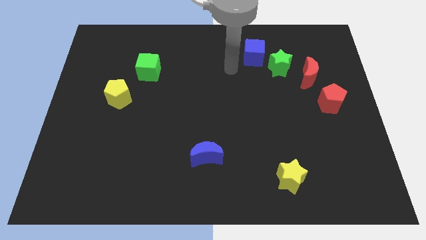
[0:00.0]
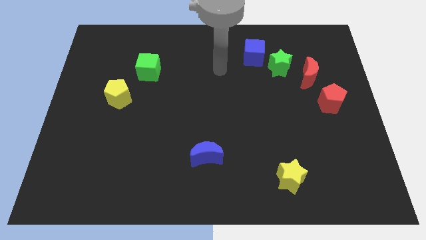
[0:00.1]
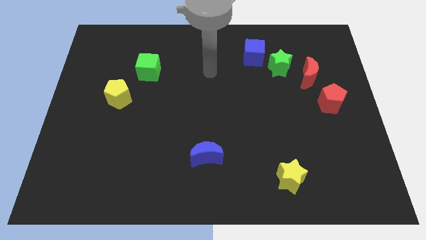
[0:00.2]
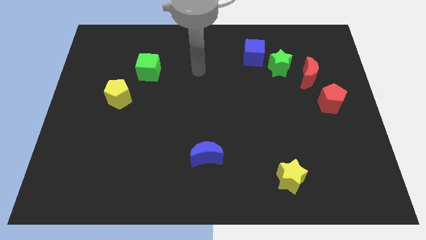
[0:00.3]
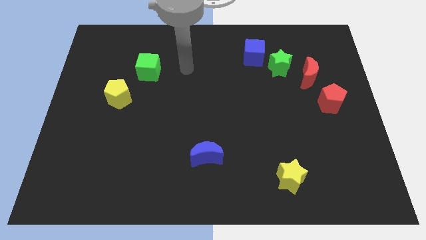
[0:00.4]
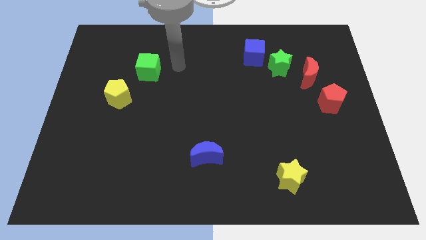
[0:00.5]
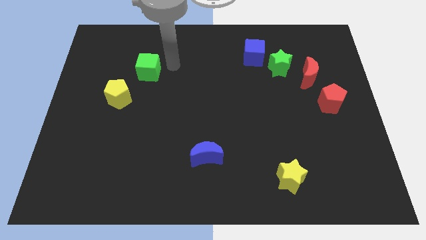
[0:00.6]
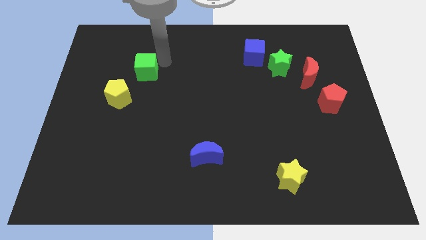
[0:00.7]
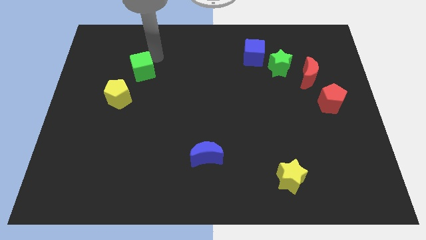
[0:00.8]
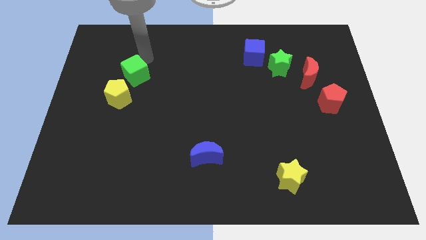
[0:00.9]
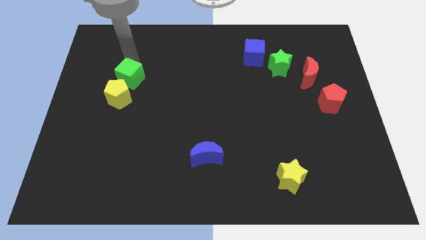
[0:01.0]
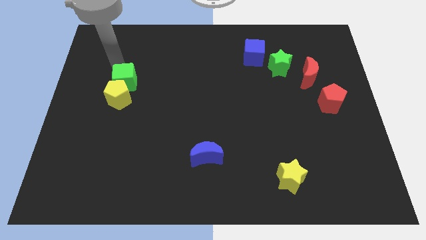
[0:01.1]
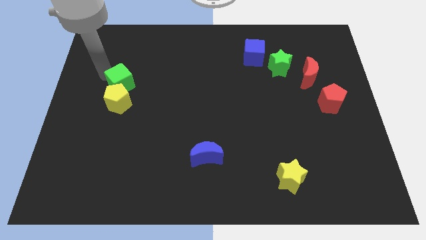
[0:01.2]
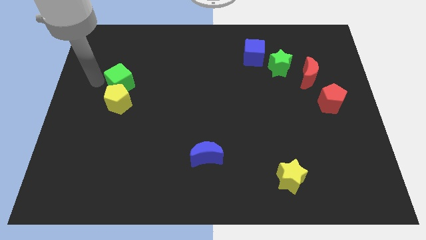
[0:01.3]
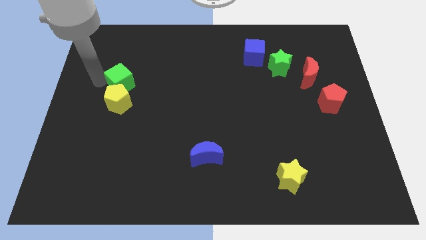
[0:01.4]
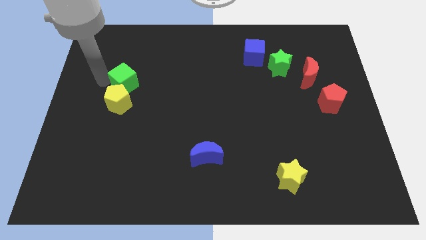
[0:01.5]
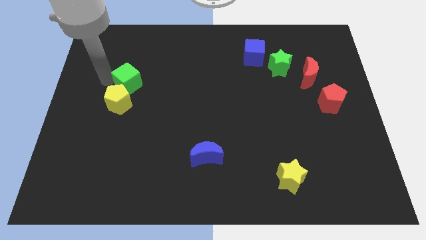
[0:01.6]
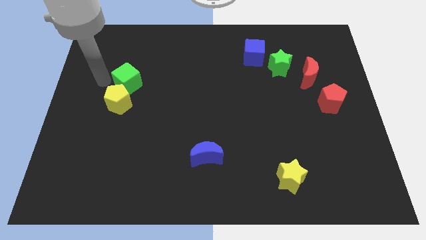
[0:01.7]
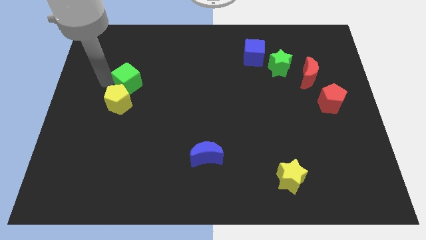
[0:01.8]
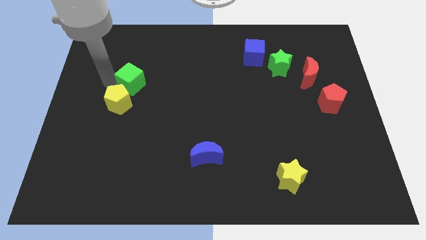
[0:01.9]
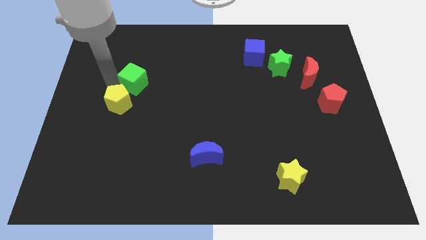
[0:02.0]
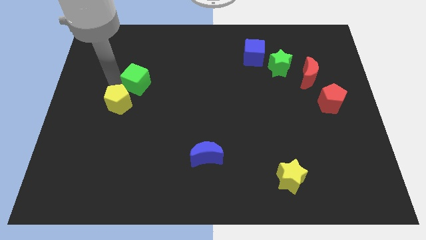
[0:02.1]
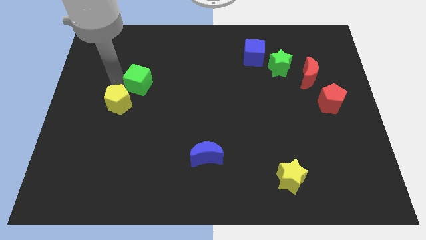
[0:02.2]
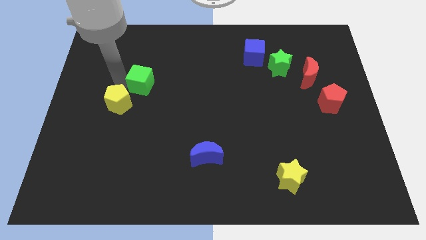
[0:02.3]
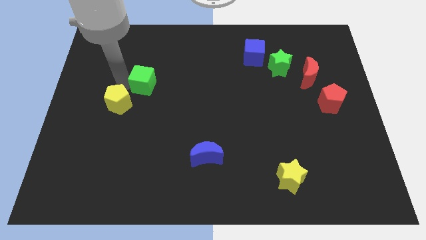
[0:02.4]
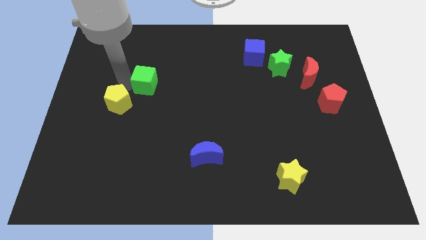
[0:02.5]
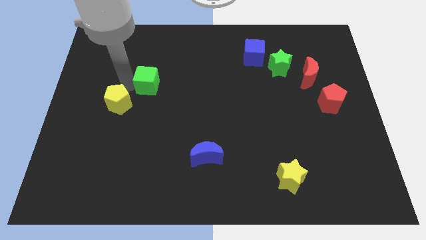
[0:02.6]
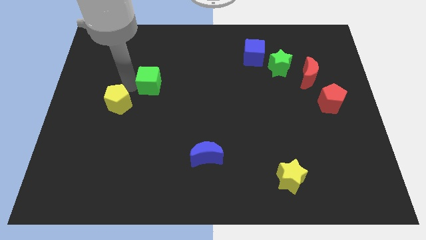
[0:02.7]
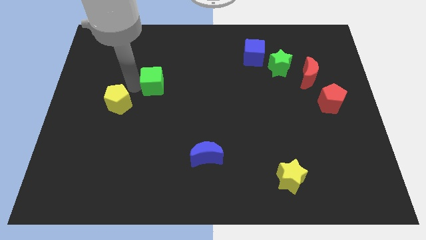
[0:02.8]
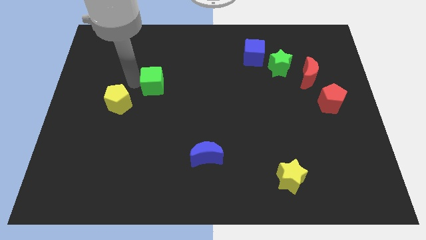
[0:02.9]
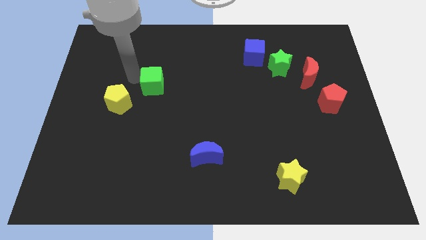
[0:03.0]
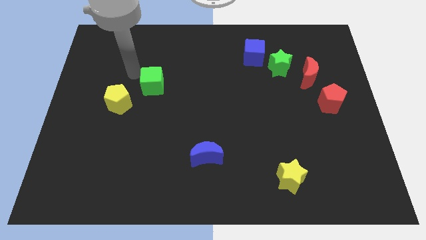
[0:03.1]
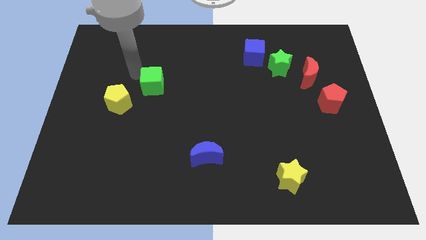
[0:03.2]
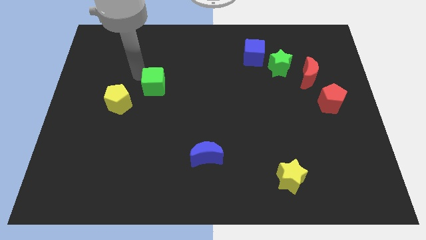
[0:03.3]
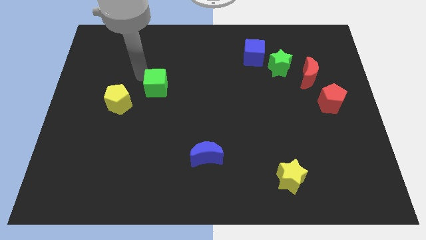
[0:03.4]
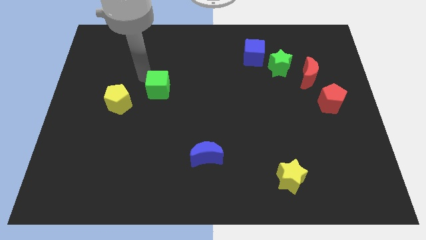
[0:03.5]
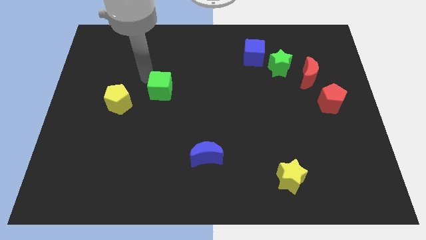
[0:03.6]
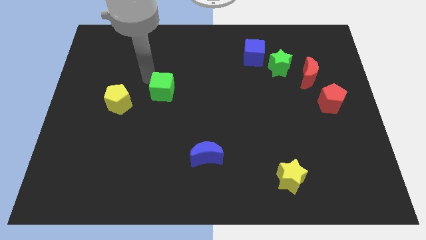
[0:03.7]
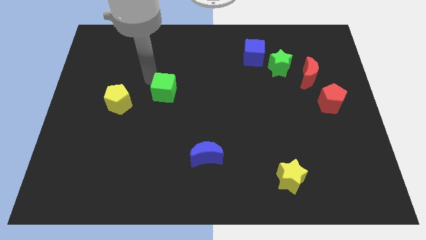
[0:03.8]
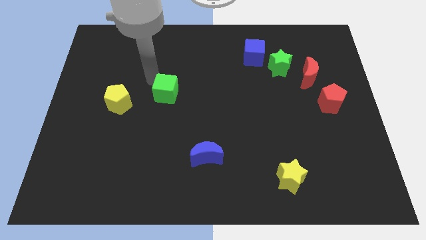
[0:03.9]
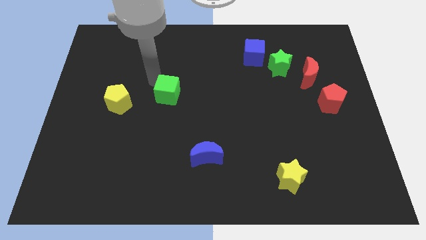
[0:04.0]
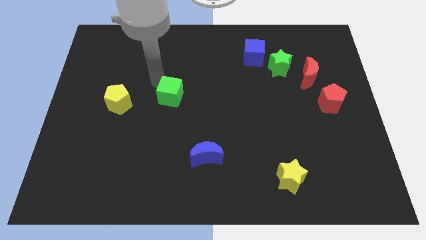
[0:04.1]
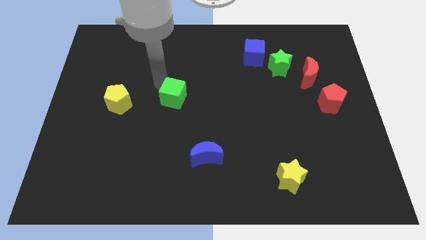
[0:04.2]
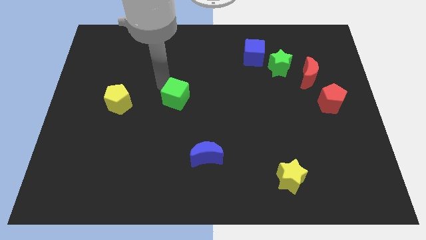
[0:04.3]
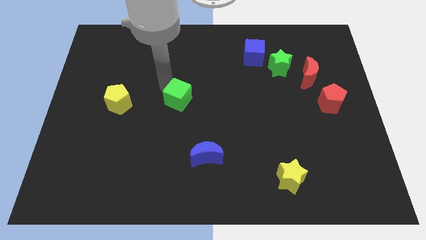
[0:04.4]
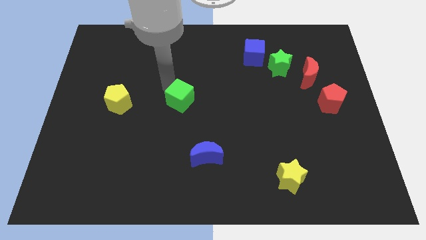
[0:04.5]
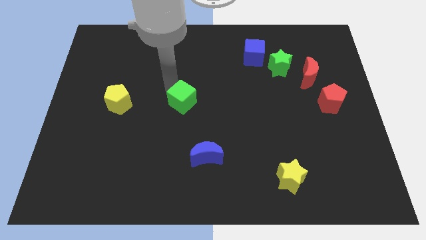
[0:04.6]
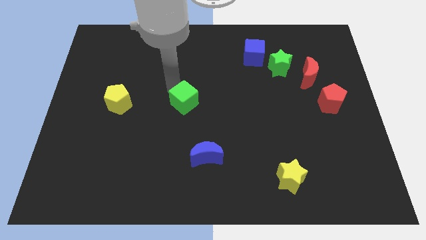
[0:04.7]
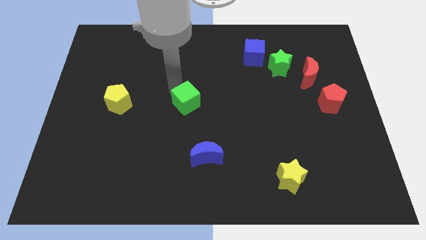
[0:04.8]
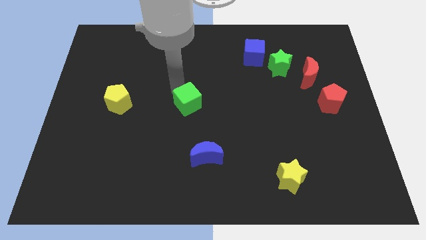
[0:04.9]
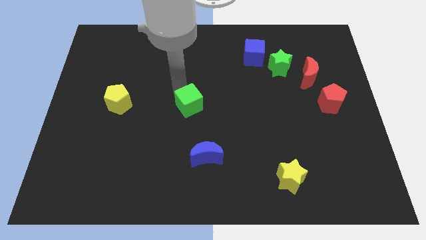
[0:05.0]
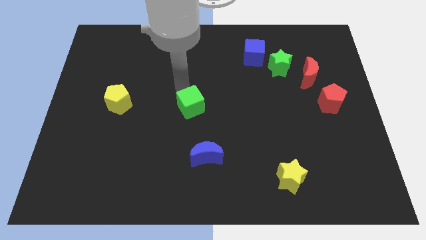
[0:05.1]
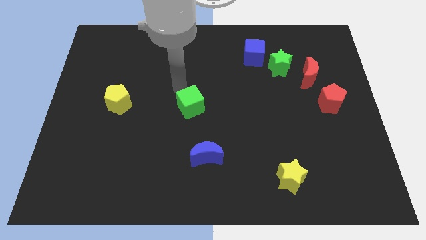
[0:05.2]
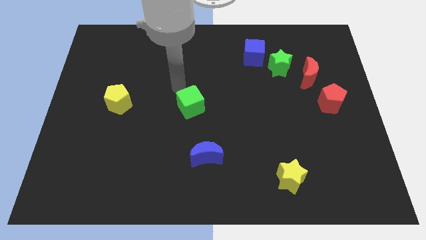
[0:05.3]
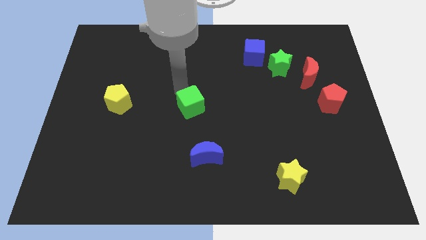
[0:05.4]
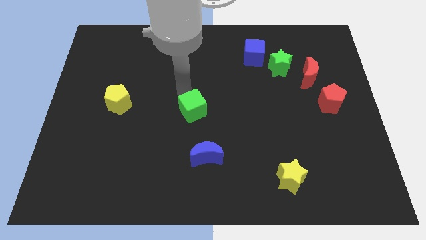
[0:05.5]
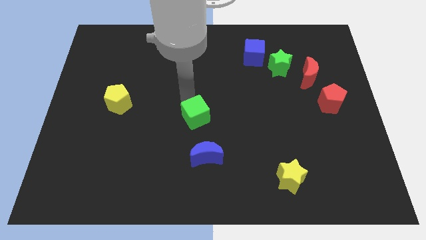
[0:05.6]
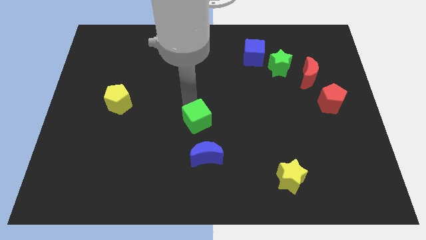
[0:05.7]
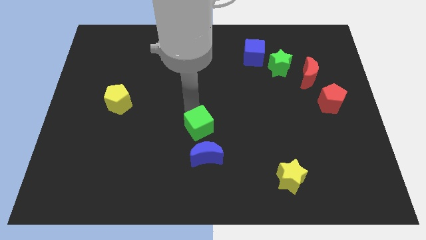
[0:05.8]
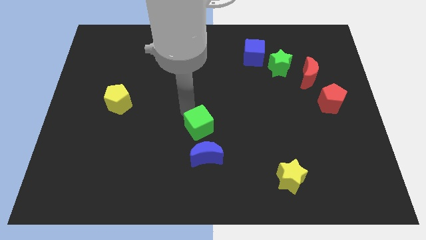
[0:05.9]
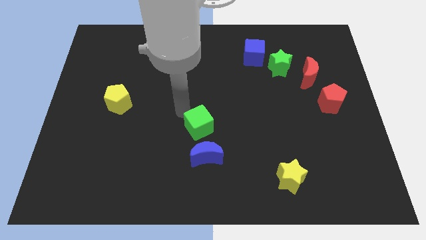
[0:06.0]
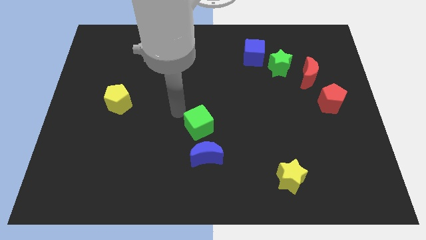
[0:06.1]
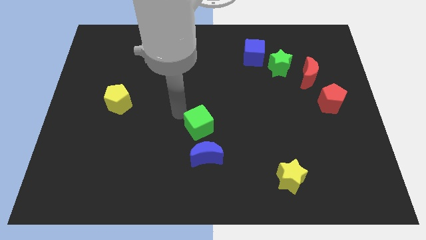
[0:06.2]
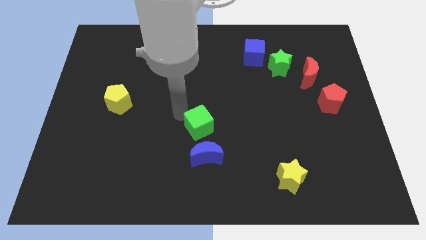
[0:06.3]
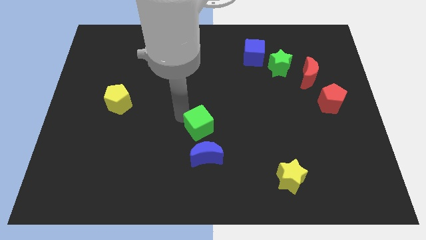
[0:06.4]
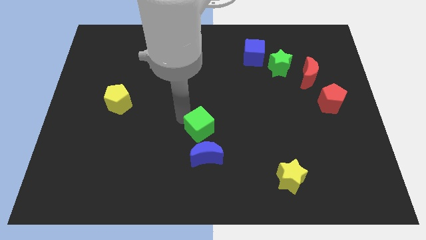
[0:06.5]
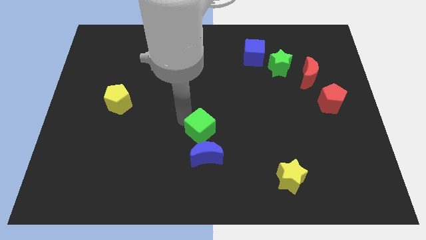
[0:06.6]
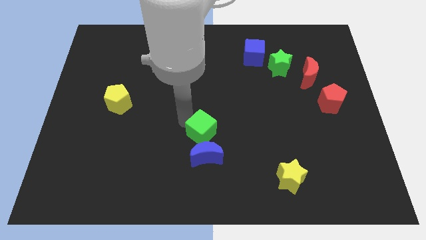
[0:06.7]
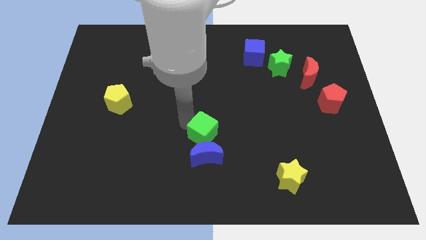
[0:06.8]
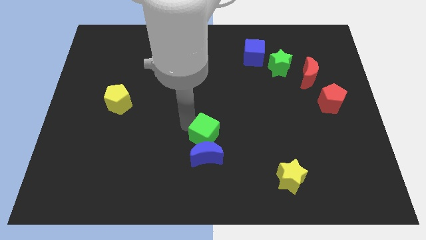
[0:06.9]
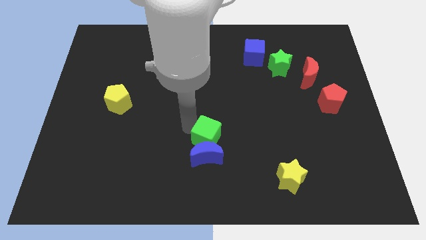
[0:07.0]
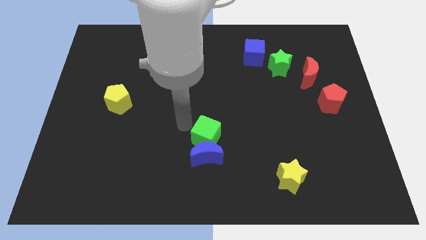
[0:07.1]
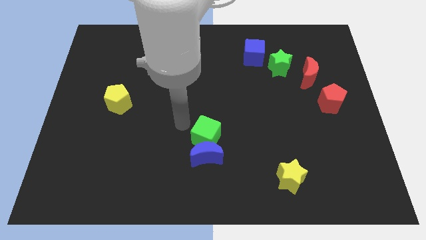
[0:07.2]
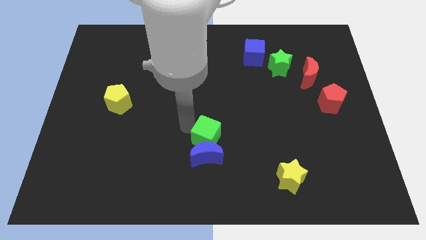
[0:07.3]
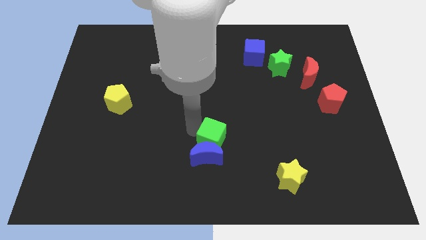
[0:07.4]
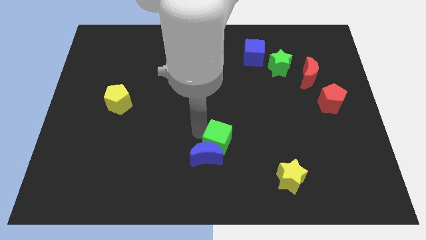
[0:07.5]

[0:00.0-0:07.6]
push the green cube to the right of the blue moon

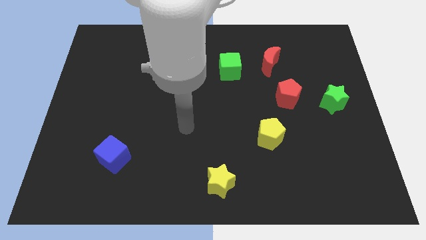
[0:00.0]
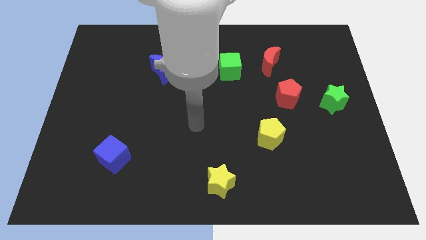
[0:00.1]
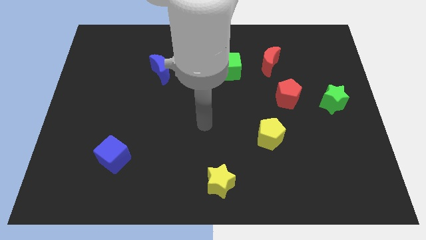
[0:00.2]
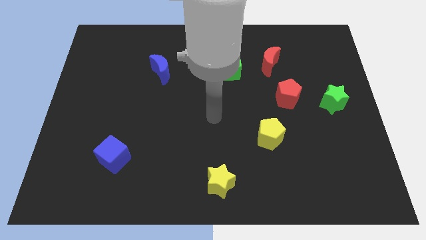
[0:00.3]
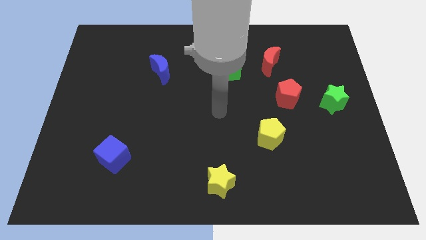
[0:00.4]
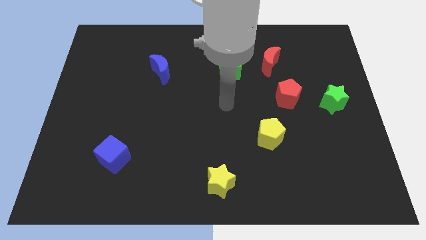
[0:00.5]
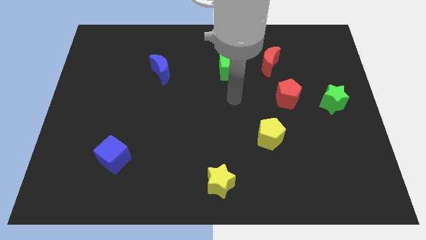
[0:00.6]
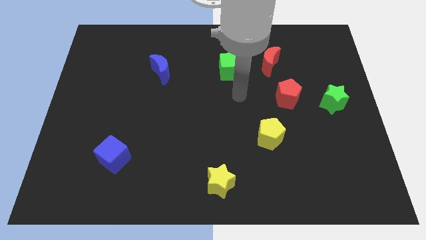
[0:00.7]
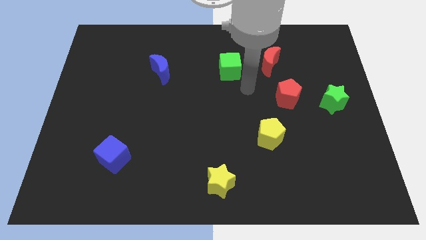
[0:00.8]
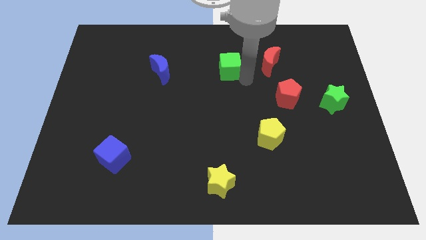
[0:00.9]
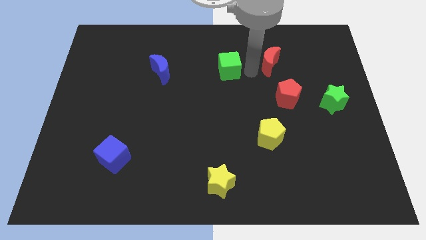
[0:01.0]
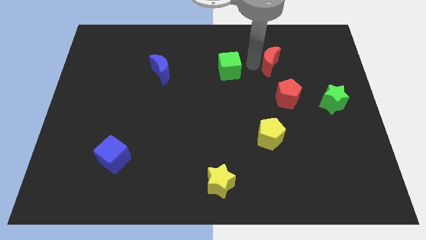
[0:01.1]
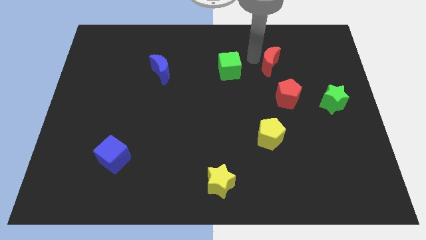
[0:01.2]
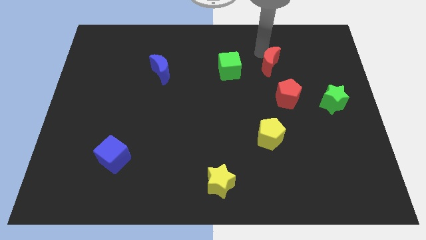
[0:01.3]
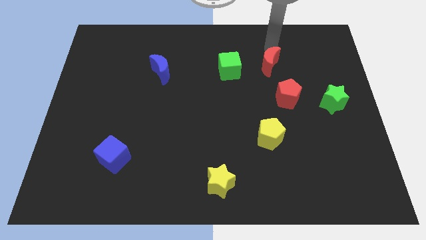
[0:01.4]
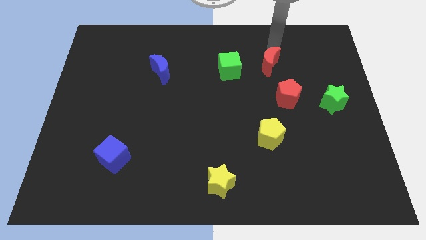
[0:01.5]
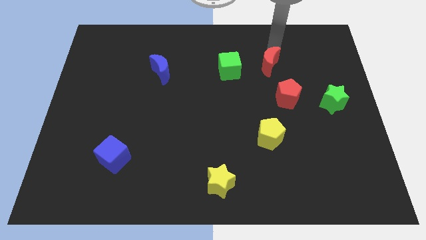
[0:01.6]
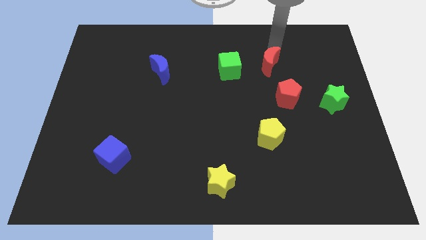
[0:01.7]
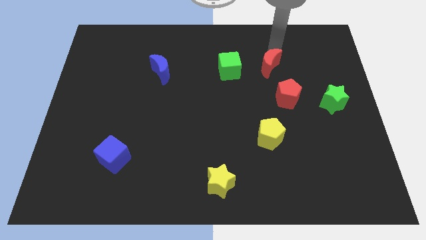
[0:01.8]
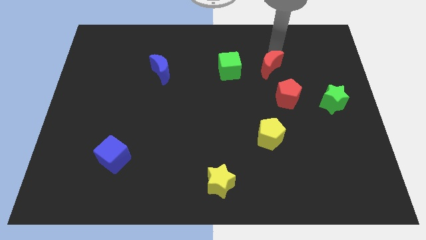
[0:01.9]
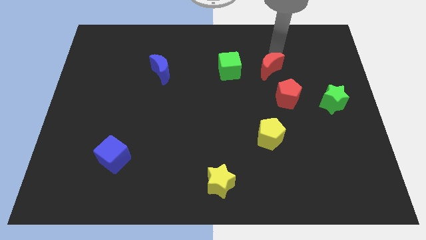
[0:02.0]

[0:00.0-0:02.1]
put the red moon diagonally up and to the left of the red pentagon
